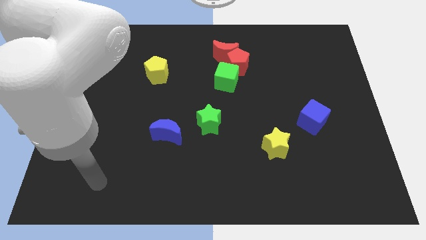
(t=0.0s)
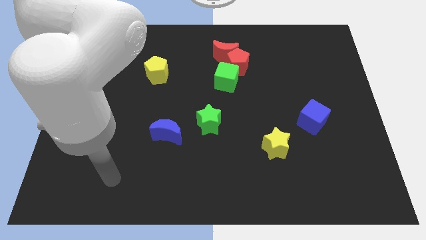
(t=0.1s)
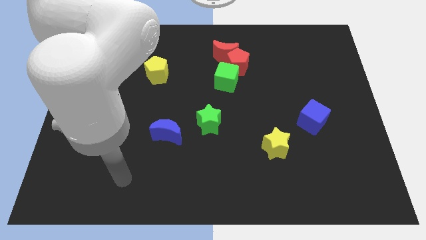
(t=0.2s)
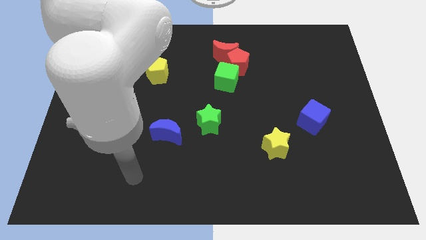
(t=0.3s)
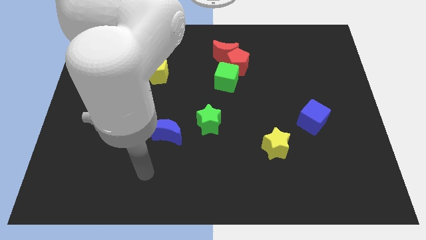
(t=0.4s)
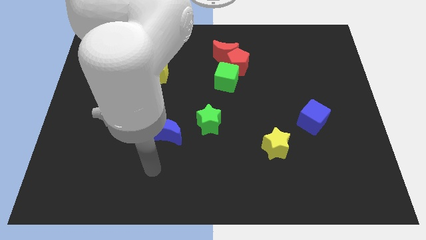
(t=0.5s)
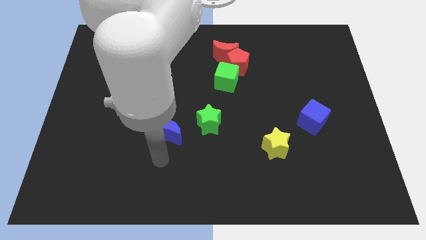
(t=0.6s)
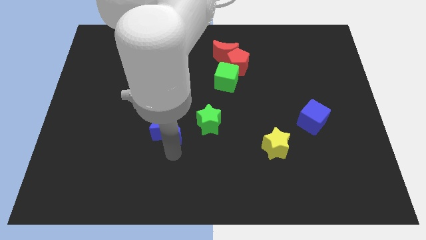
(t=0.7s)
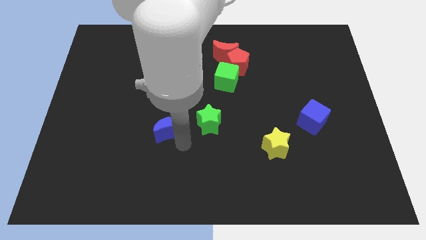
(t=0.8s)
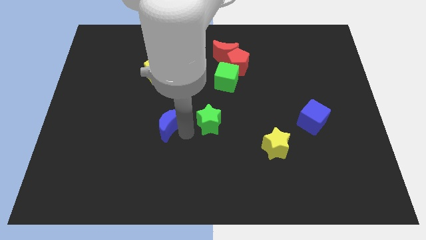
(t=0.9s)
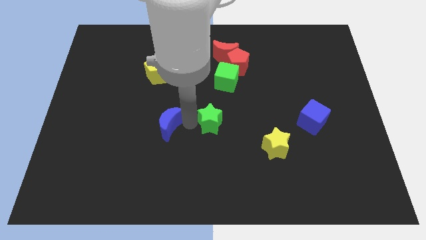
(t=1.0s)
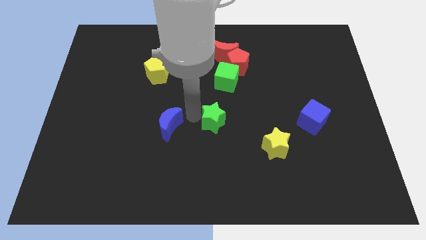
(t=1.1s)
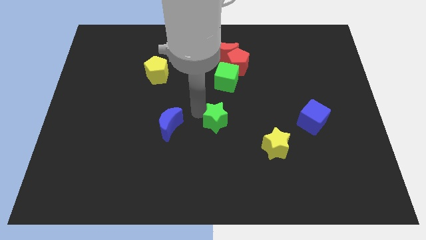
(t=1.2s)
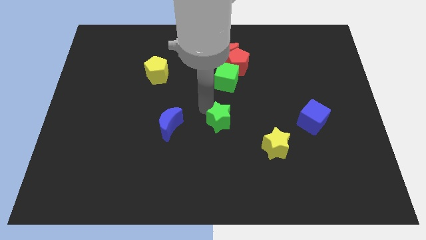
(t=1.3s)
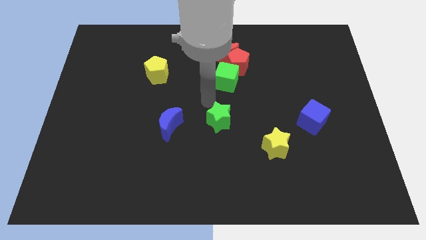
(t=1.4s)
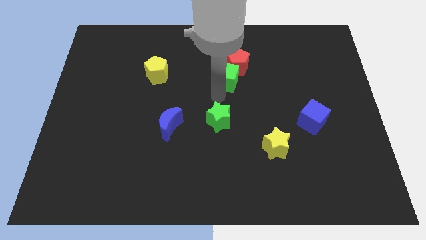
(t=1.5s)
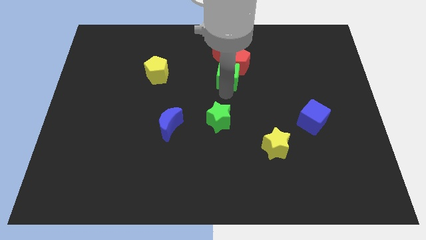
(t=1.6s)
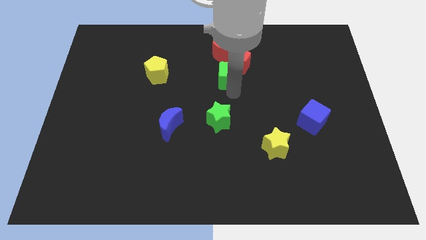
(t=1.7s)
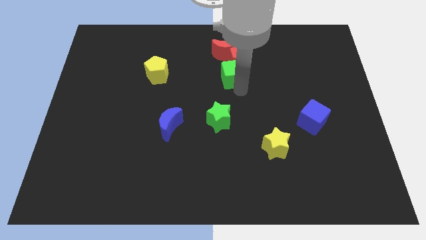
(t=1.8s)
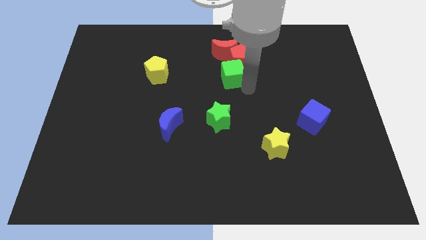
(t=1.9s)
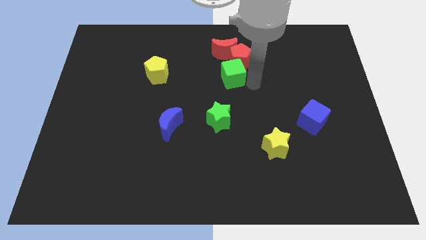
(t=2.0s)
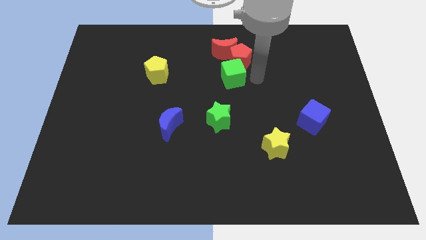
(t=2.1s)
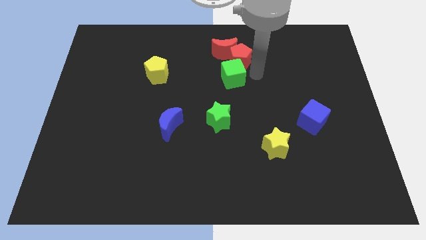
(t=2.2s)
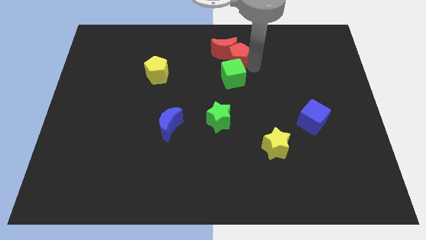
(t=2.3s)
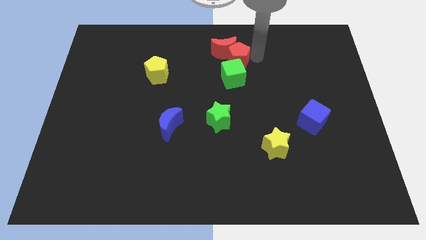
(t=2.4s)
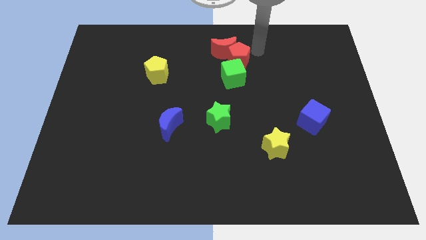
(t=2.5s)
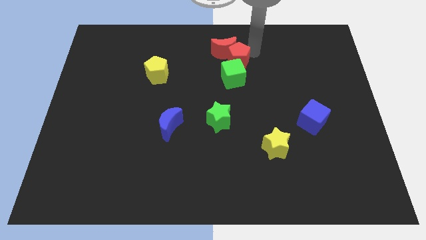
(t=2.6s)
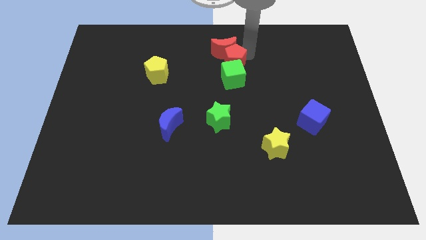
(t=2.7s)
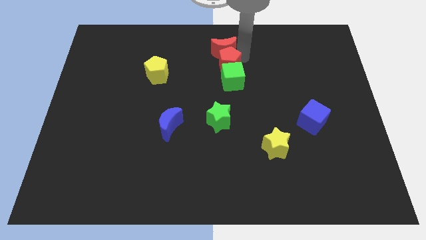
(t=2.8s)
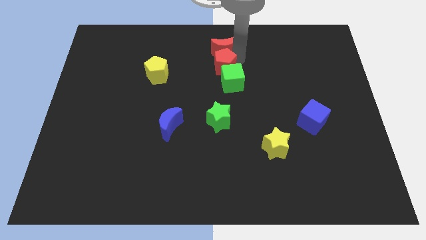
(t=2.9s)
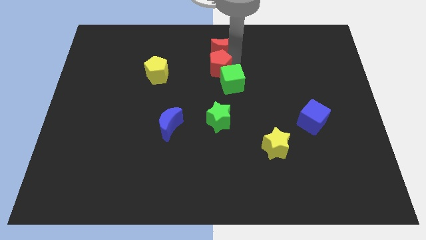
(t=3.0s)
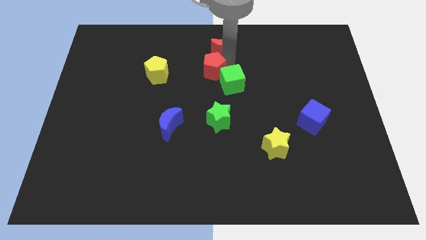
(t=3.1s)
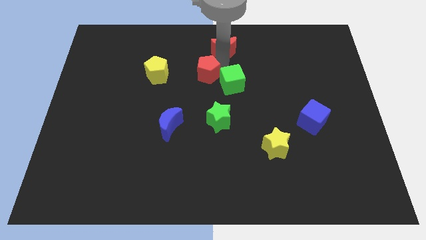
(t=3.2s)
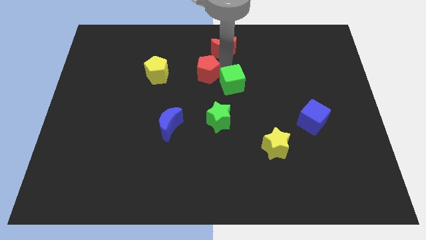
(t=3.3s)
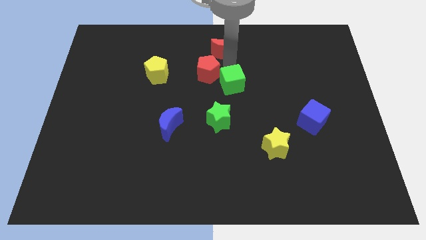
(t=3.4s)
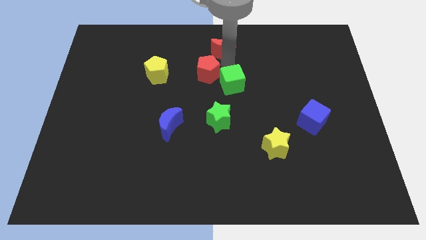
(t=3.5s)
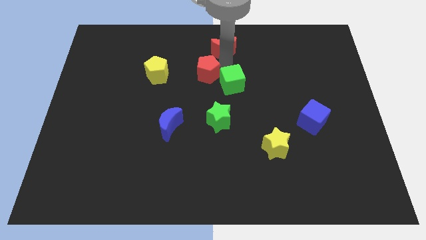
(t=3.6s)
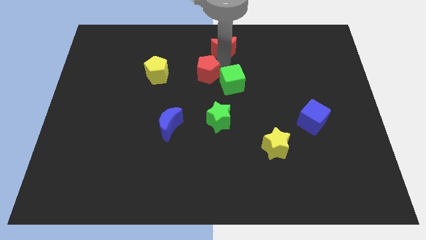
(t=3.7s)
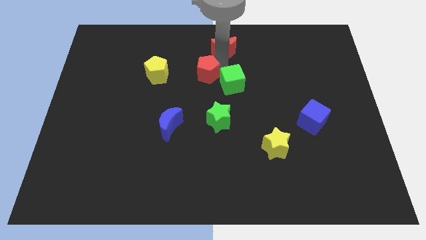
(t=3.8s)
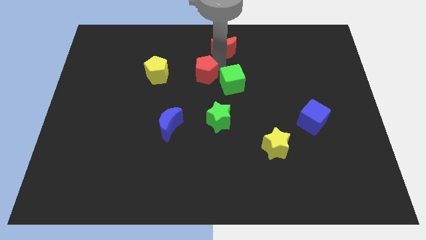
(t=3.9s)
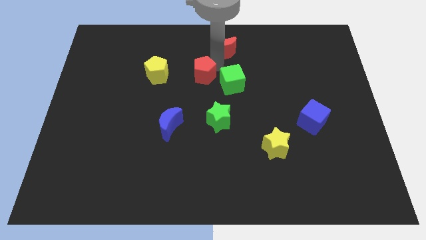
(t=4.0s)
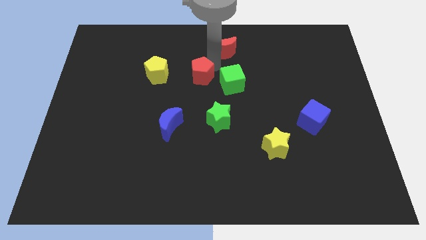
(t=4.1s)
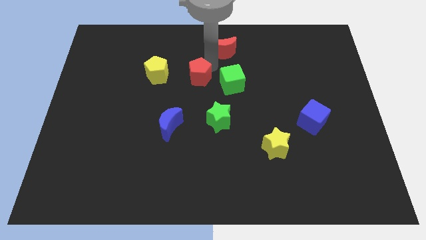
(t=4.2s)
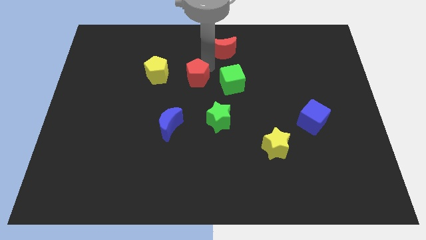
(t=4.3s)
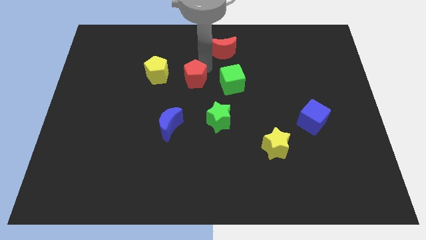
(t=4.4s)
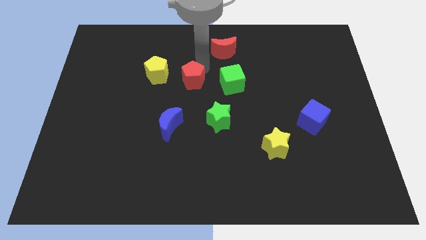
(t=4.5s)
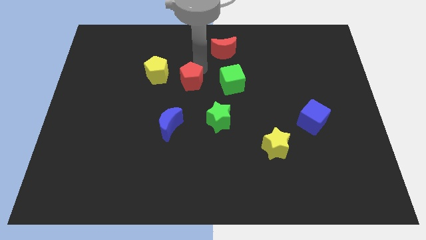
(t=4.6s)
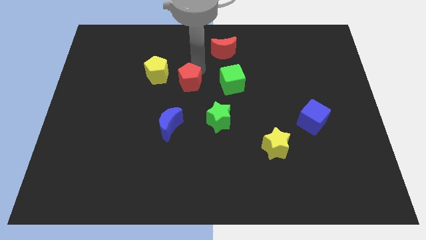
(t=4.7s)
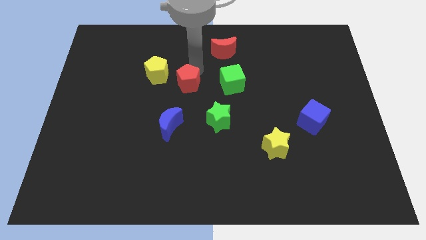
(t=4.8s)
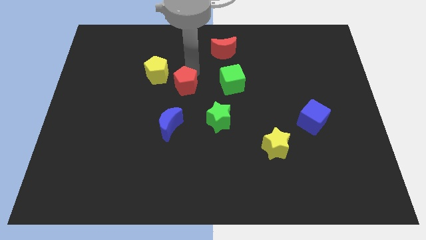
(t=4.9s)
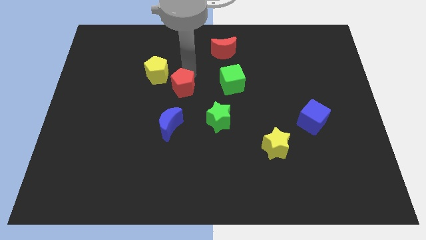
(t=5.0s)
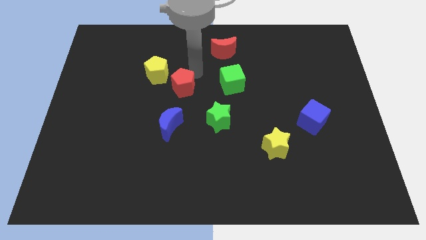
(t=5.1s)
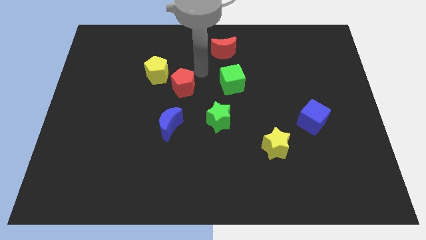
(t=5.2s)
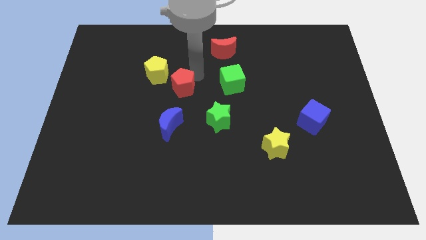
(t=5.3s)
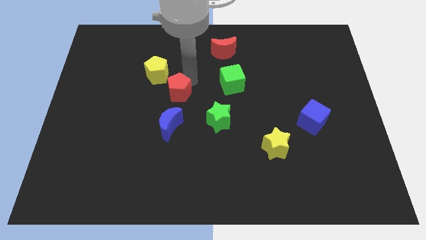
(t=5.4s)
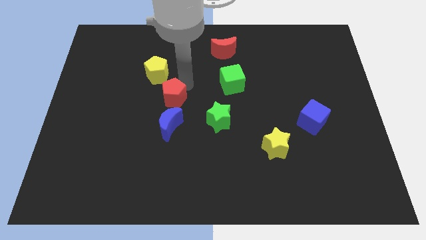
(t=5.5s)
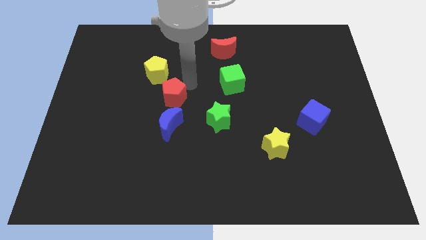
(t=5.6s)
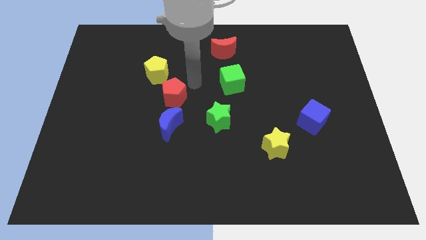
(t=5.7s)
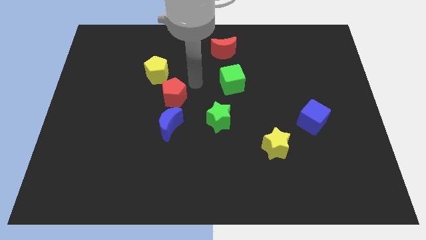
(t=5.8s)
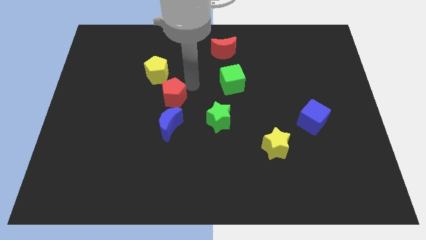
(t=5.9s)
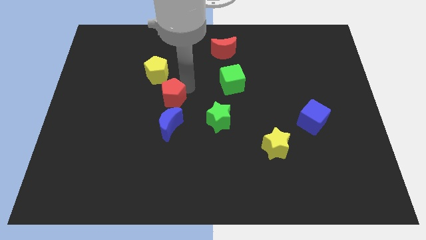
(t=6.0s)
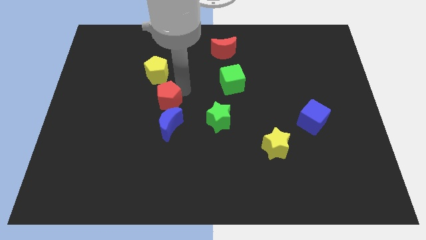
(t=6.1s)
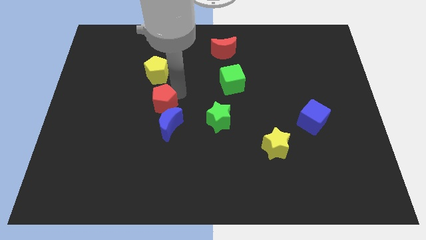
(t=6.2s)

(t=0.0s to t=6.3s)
move the red pentagon diagonally downwards and left

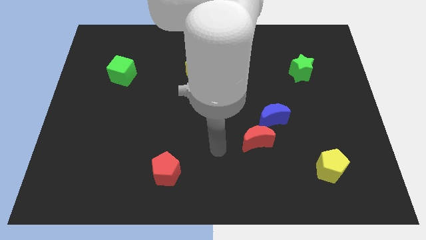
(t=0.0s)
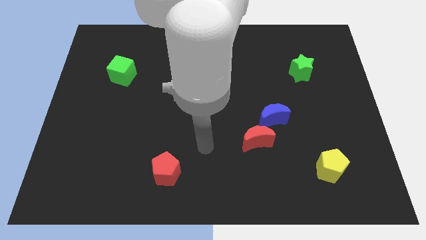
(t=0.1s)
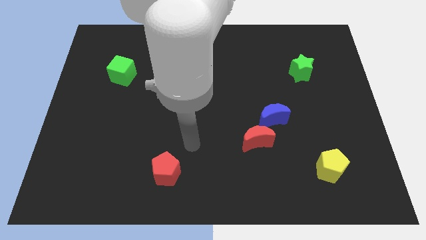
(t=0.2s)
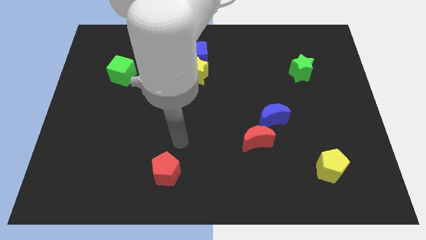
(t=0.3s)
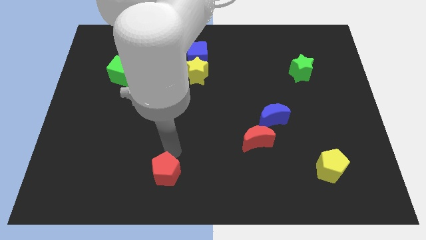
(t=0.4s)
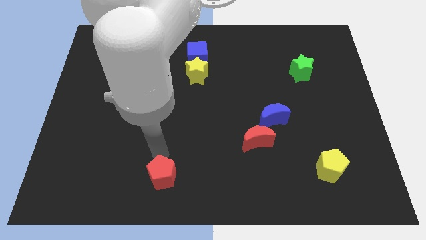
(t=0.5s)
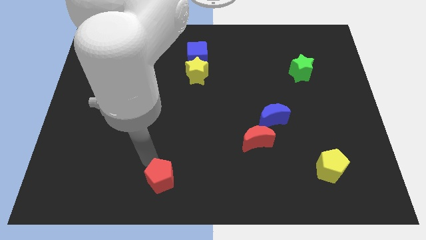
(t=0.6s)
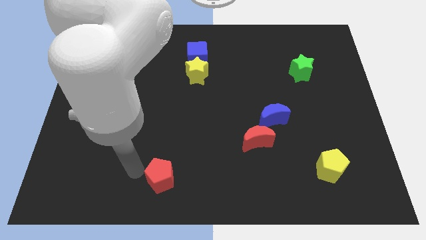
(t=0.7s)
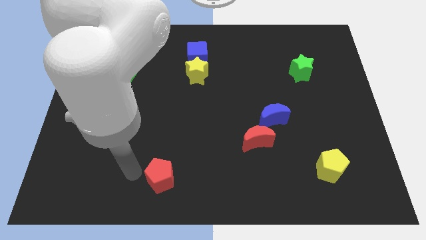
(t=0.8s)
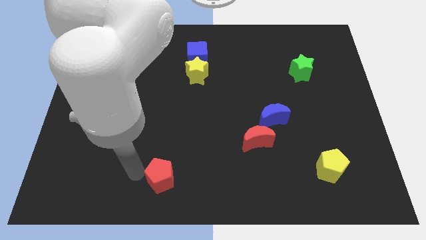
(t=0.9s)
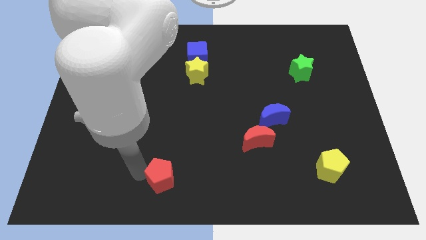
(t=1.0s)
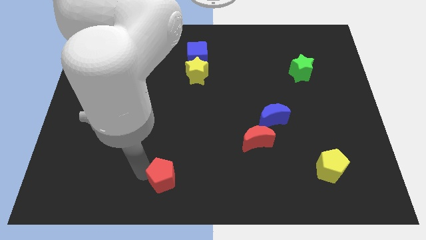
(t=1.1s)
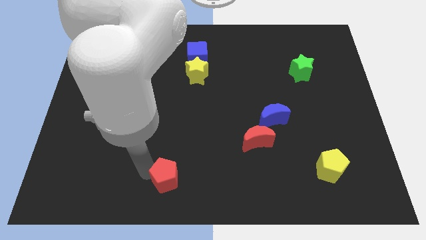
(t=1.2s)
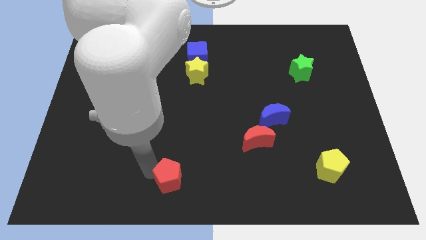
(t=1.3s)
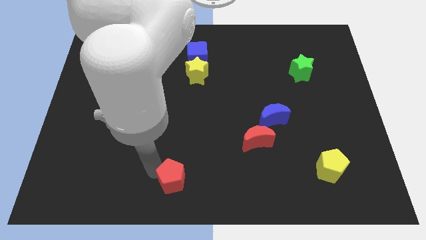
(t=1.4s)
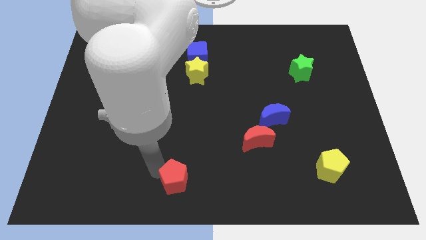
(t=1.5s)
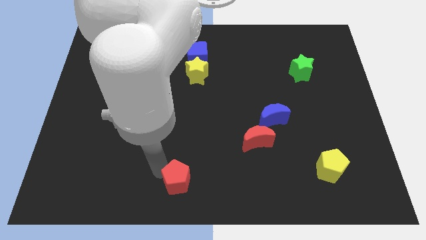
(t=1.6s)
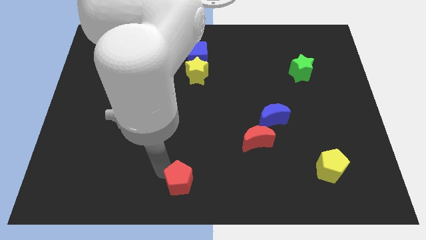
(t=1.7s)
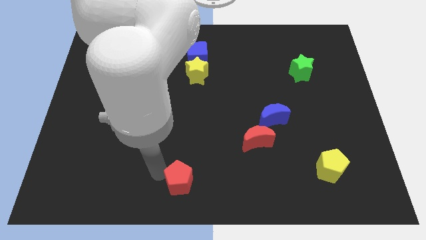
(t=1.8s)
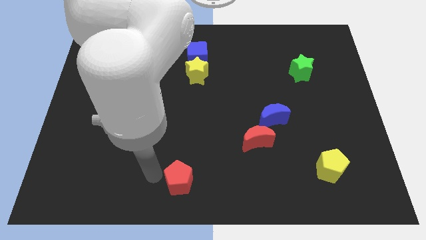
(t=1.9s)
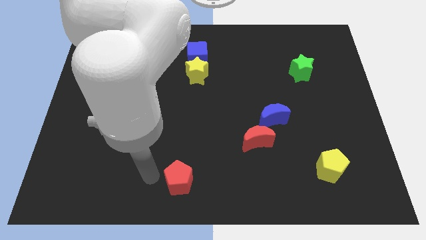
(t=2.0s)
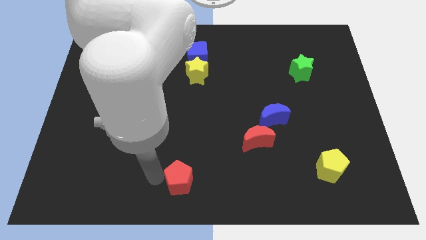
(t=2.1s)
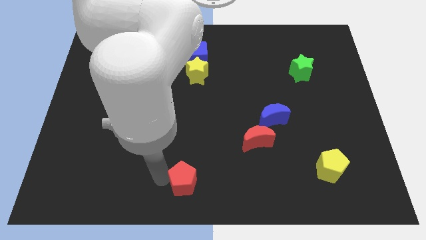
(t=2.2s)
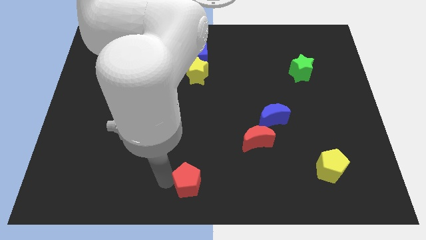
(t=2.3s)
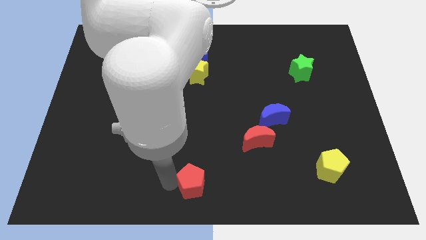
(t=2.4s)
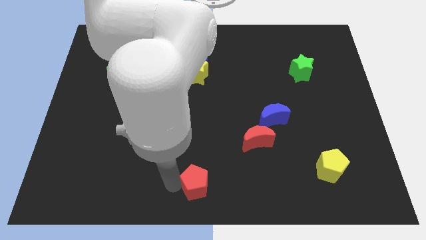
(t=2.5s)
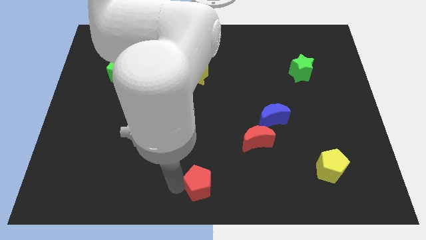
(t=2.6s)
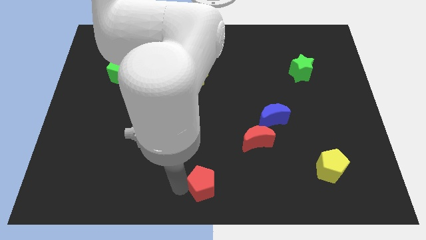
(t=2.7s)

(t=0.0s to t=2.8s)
slide the red pentagon a little to the right
